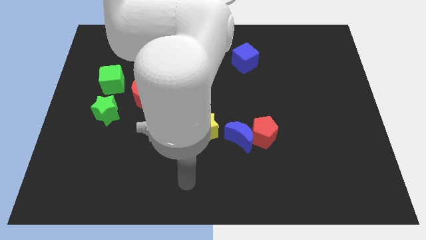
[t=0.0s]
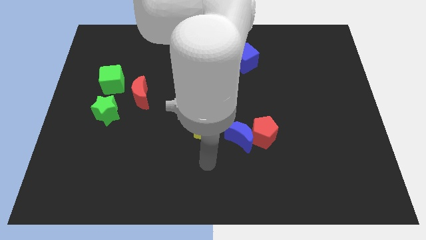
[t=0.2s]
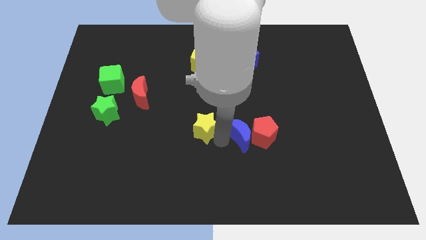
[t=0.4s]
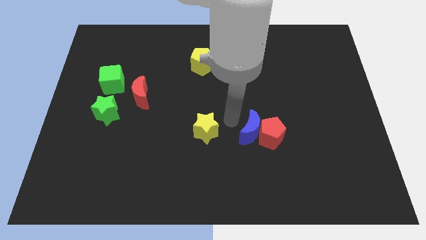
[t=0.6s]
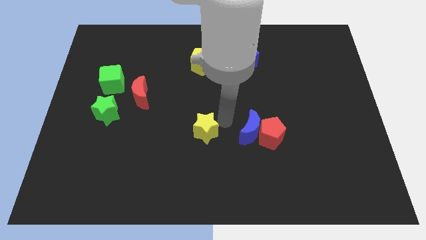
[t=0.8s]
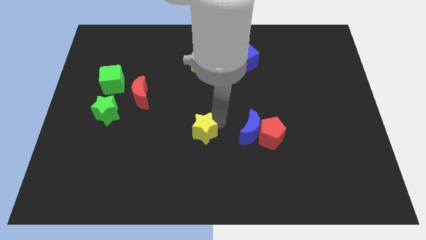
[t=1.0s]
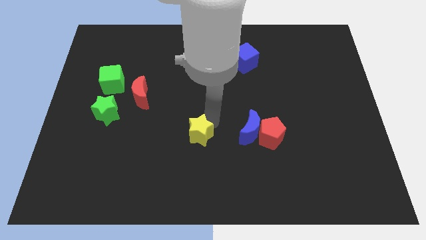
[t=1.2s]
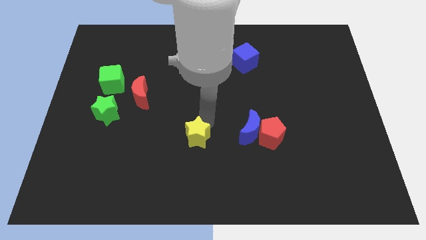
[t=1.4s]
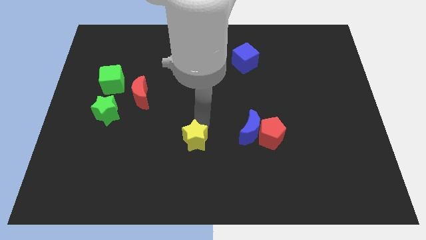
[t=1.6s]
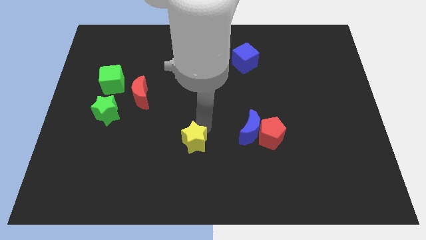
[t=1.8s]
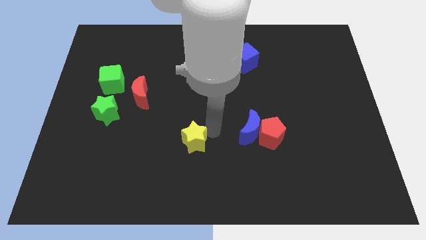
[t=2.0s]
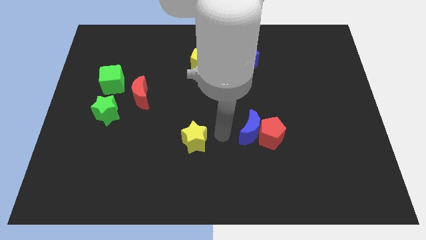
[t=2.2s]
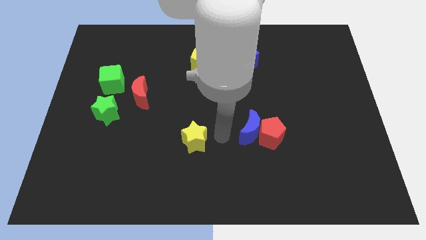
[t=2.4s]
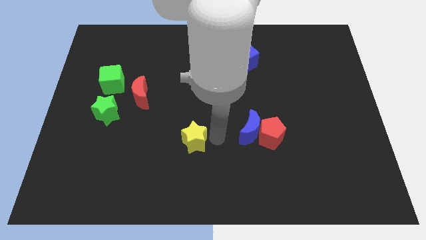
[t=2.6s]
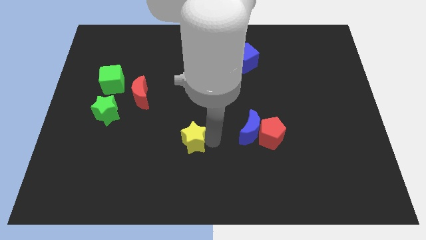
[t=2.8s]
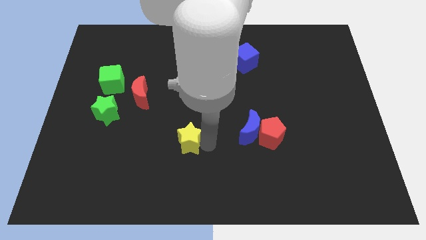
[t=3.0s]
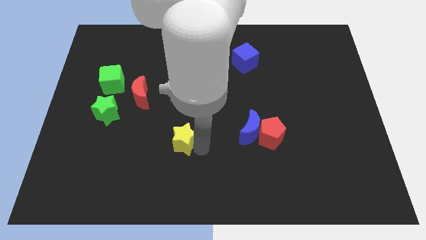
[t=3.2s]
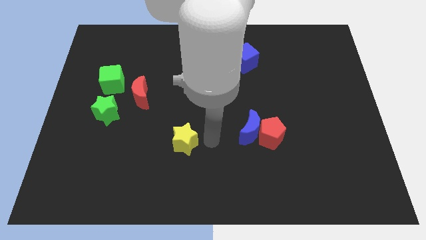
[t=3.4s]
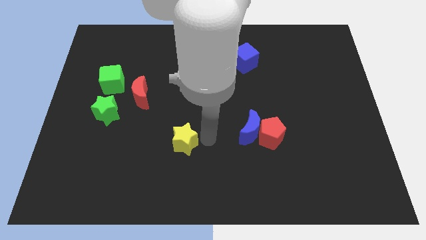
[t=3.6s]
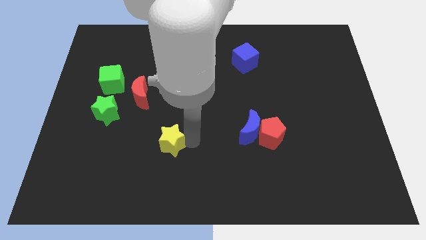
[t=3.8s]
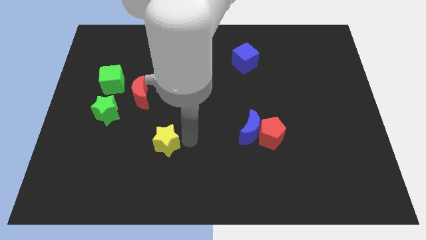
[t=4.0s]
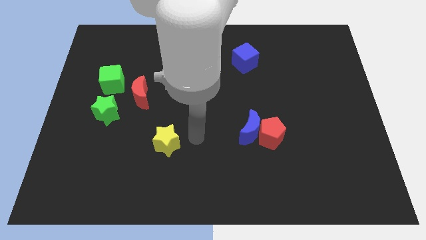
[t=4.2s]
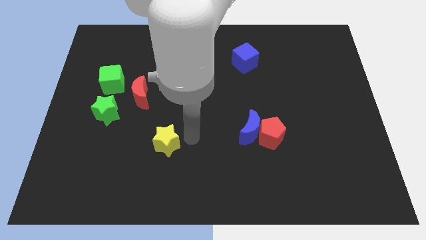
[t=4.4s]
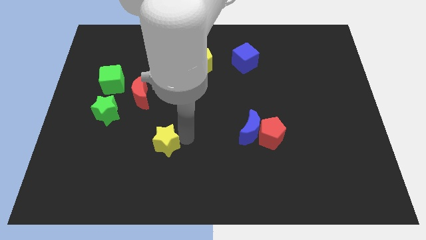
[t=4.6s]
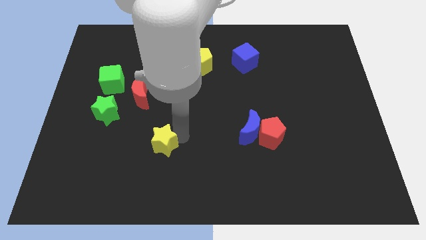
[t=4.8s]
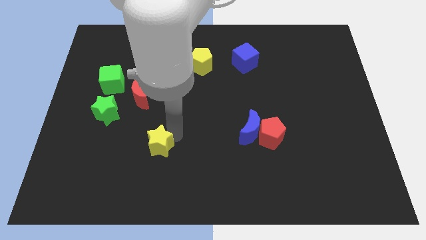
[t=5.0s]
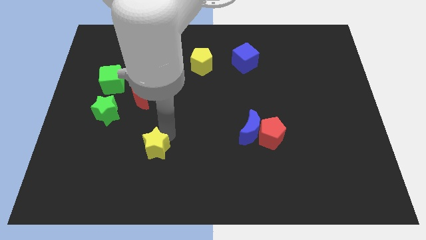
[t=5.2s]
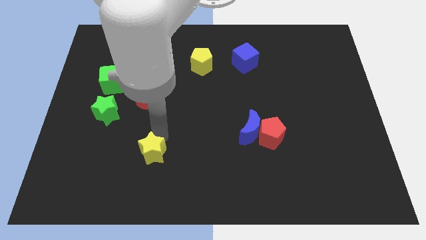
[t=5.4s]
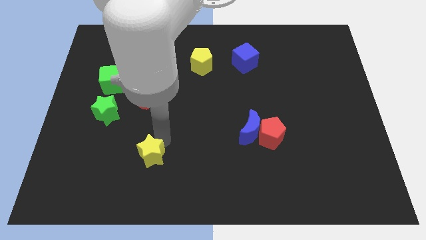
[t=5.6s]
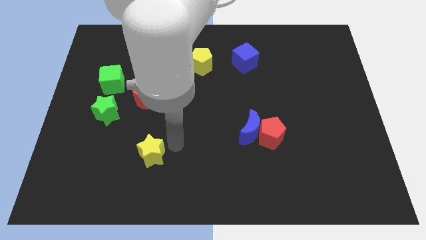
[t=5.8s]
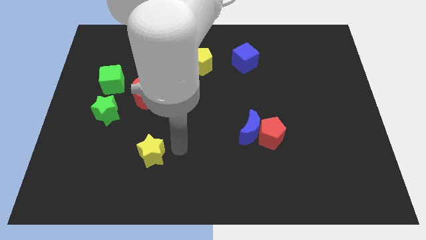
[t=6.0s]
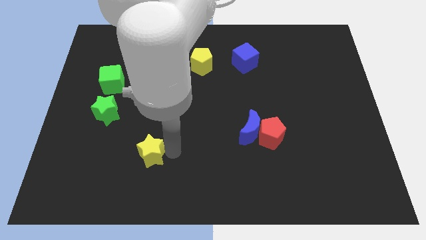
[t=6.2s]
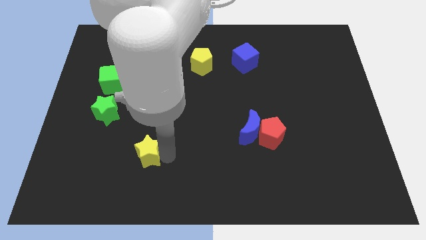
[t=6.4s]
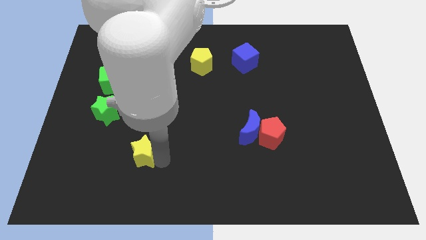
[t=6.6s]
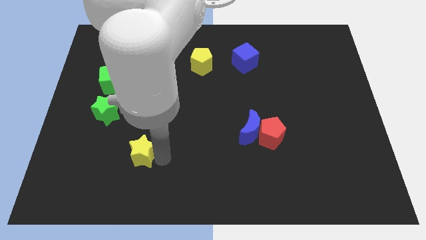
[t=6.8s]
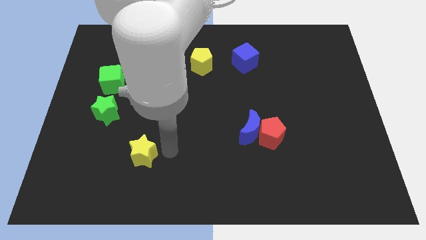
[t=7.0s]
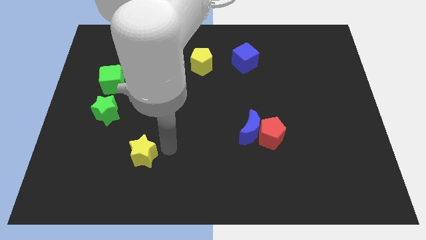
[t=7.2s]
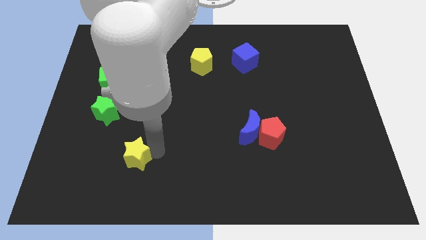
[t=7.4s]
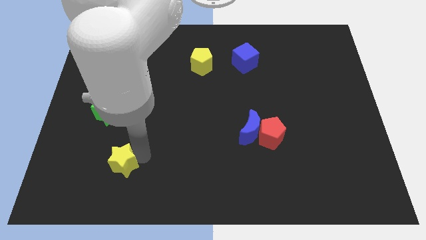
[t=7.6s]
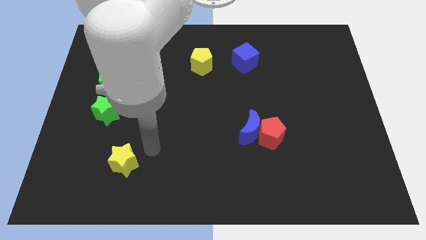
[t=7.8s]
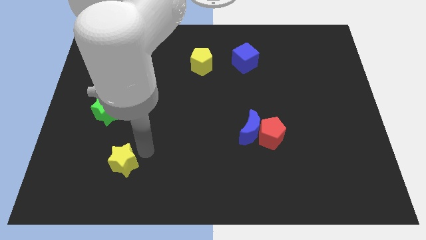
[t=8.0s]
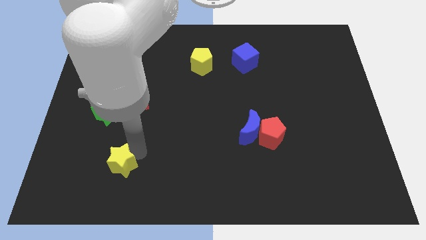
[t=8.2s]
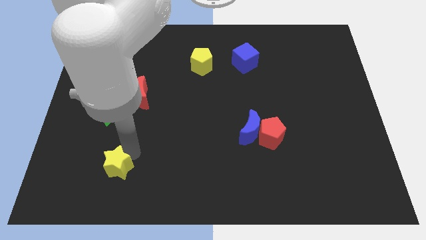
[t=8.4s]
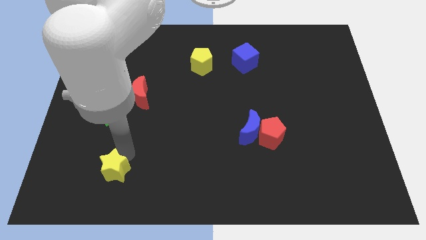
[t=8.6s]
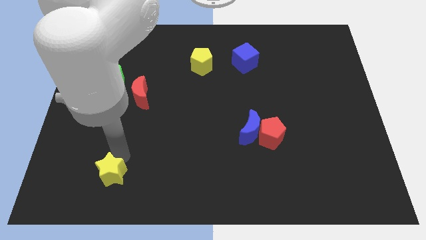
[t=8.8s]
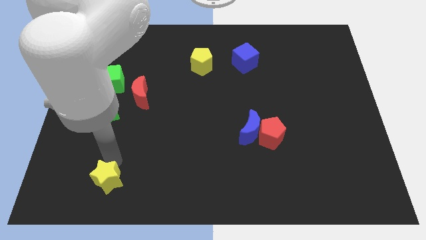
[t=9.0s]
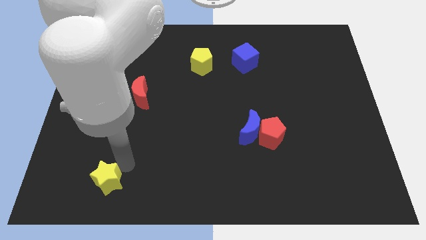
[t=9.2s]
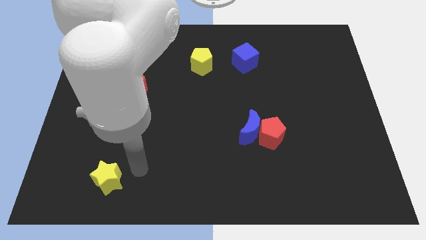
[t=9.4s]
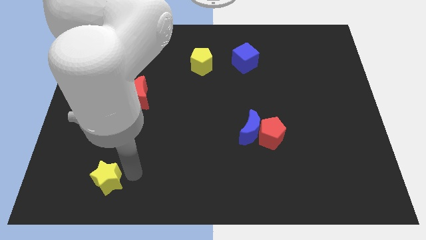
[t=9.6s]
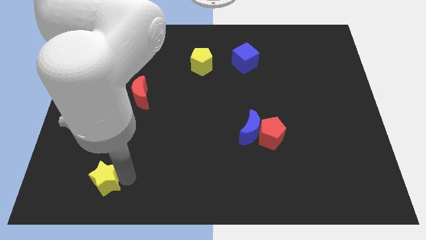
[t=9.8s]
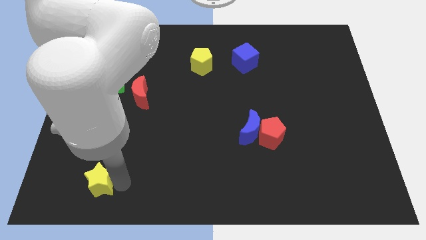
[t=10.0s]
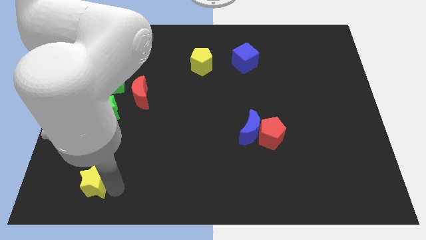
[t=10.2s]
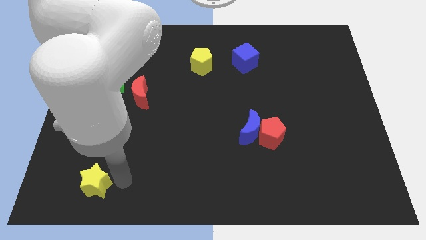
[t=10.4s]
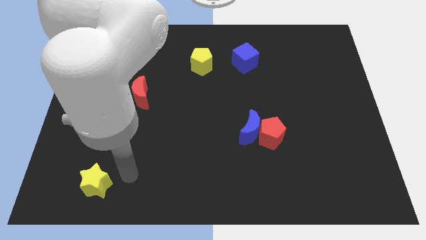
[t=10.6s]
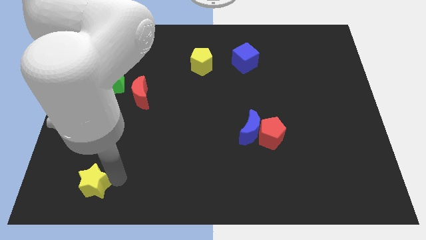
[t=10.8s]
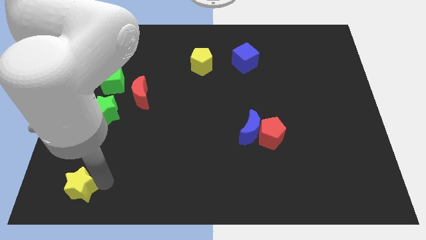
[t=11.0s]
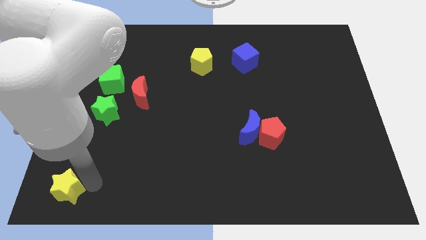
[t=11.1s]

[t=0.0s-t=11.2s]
slide the yellow star to the bottom left

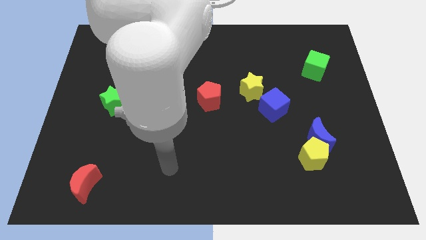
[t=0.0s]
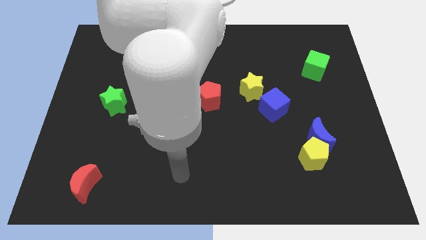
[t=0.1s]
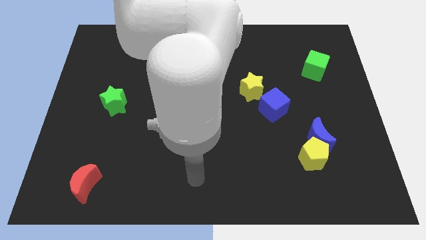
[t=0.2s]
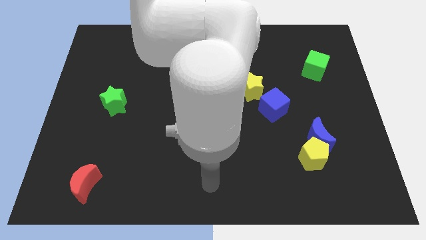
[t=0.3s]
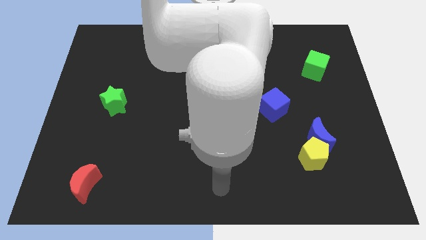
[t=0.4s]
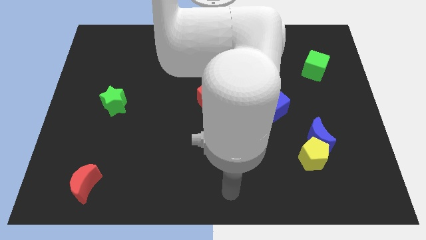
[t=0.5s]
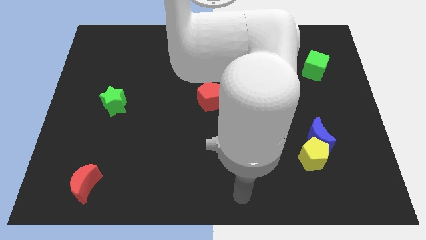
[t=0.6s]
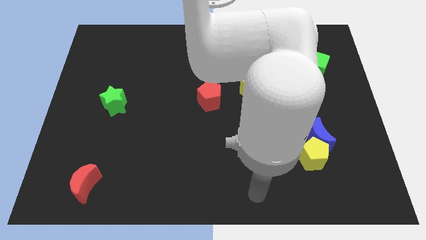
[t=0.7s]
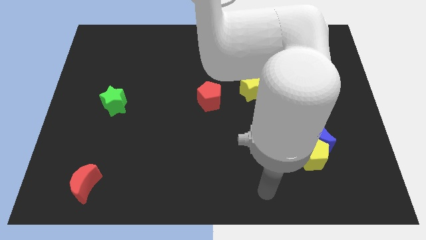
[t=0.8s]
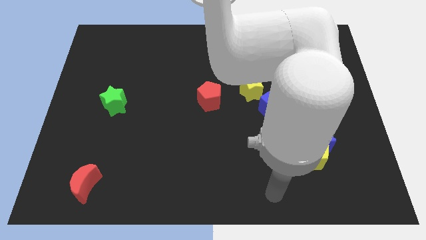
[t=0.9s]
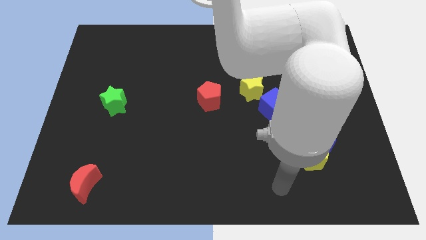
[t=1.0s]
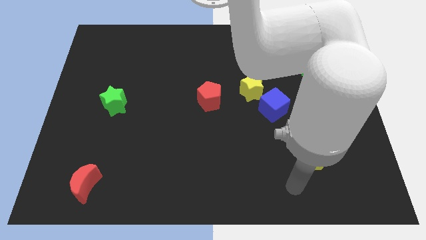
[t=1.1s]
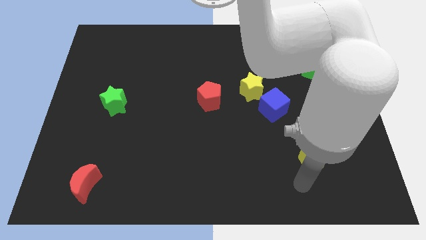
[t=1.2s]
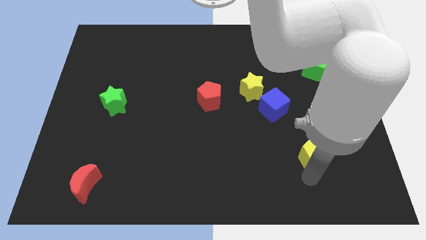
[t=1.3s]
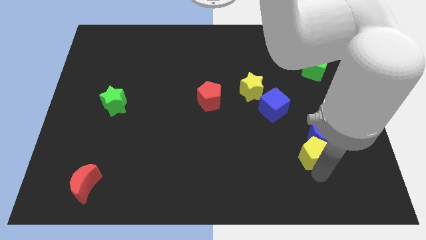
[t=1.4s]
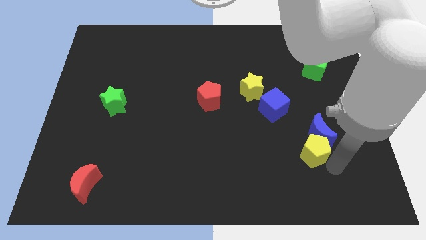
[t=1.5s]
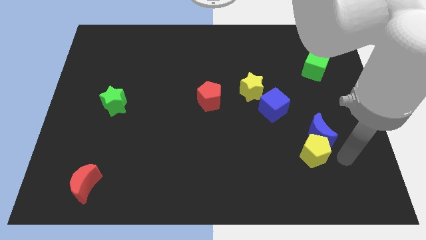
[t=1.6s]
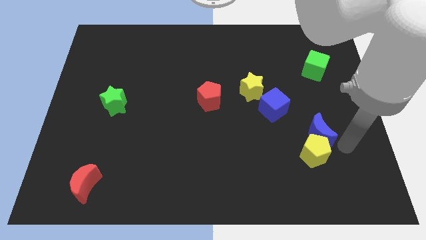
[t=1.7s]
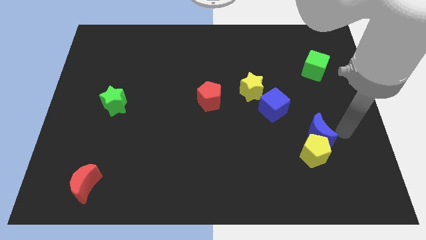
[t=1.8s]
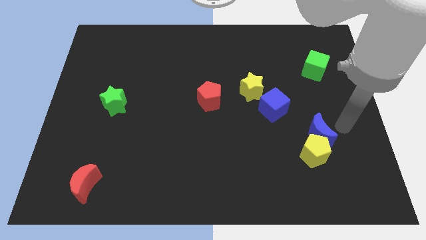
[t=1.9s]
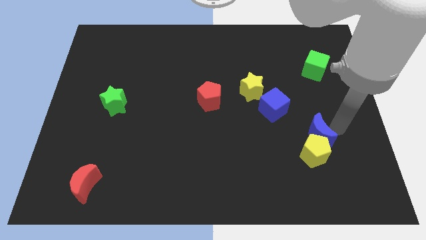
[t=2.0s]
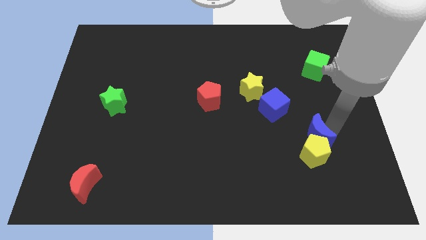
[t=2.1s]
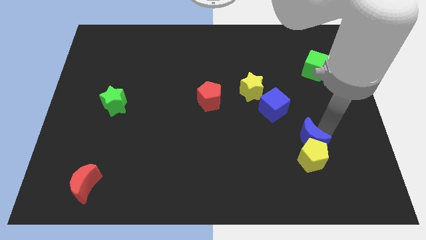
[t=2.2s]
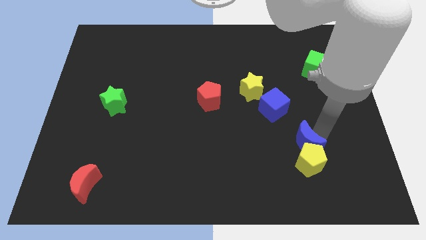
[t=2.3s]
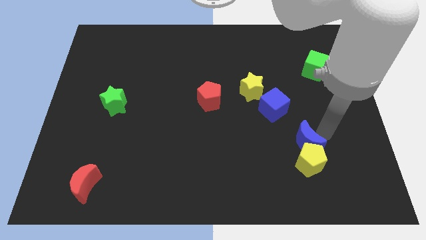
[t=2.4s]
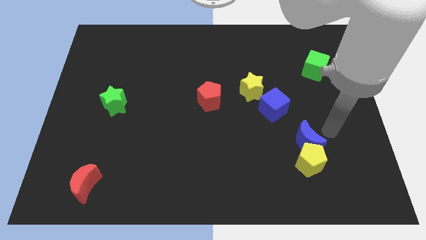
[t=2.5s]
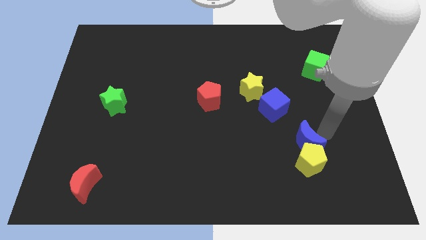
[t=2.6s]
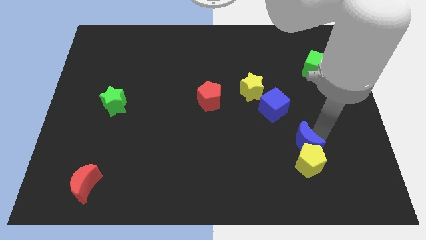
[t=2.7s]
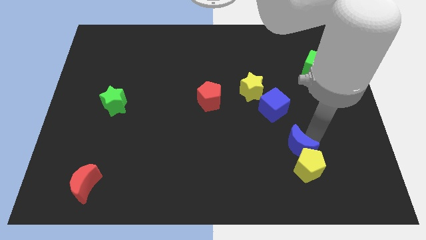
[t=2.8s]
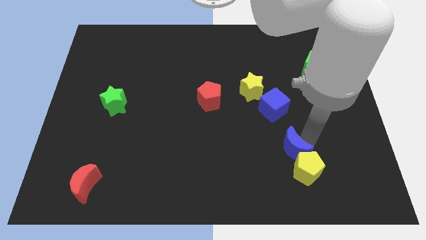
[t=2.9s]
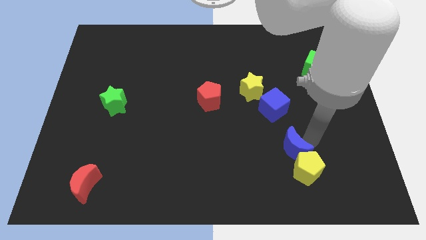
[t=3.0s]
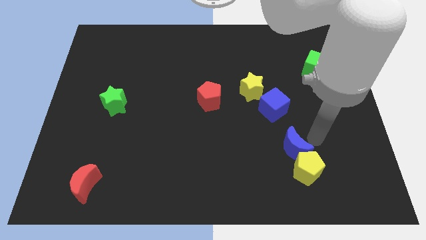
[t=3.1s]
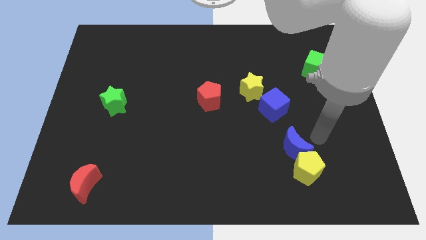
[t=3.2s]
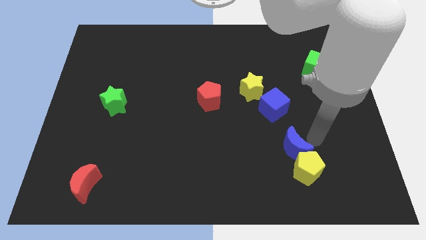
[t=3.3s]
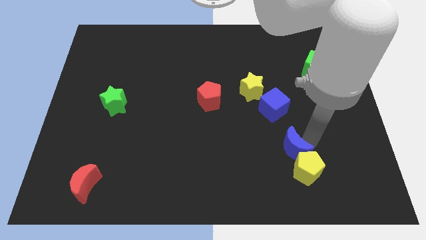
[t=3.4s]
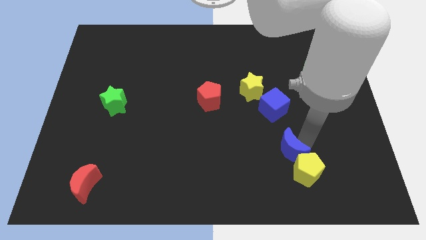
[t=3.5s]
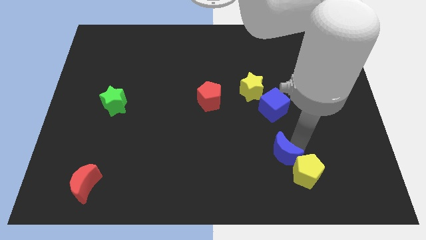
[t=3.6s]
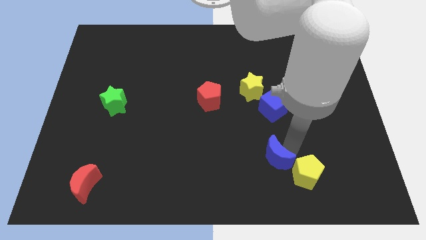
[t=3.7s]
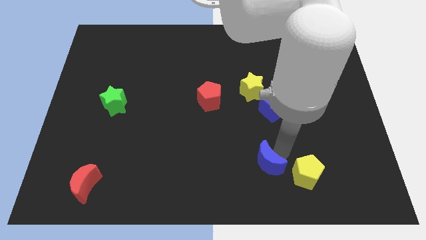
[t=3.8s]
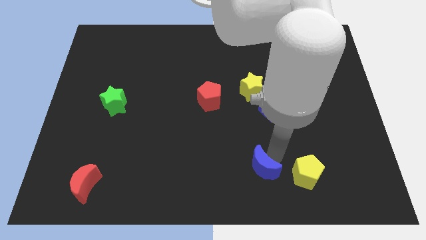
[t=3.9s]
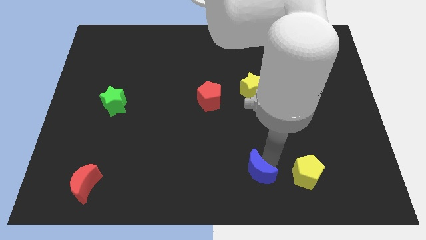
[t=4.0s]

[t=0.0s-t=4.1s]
slide the blue moon to the bottom
